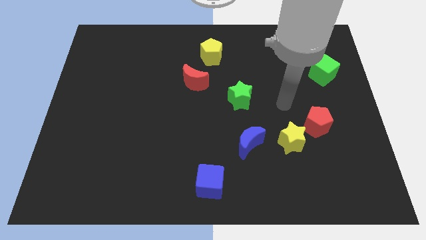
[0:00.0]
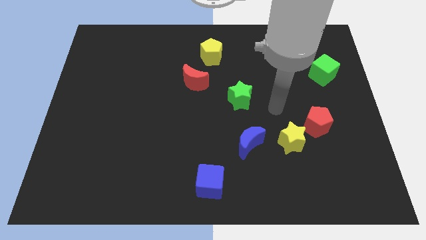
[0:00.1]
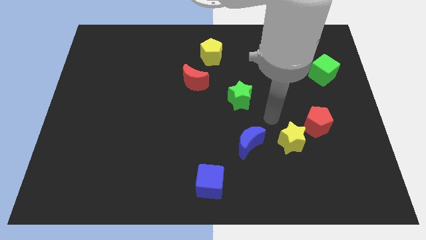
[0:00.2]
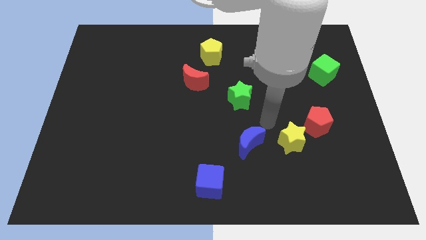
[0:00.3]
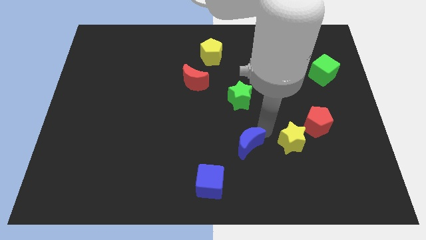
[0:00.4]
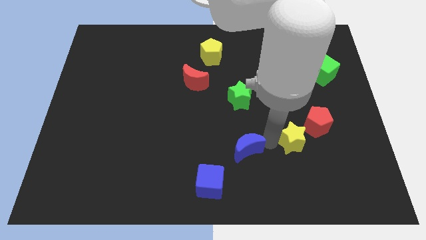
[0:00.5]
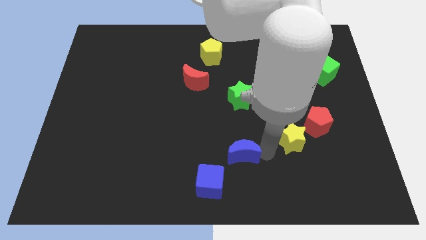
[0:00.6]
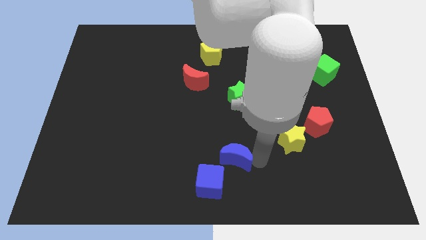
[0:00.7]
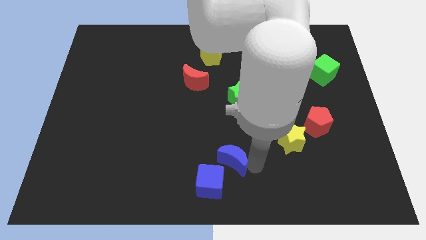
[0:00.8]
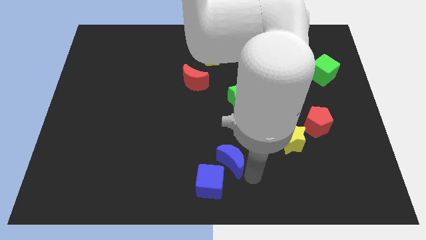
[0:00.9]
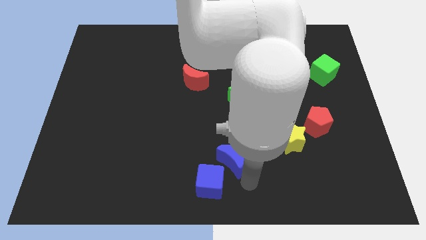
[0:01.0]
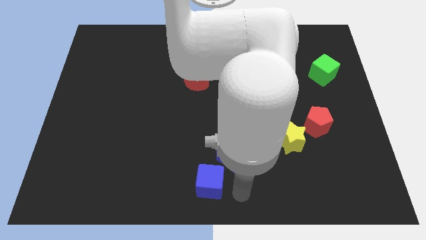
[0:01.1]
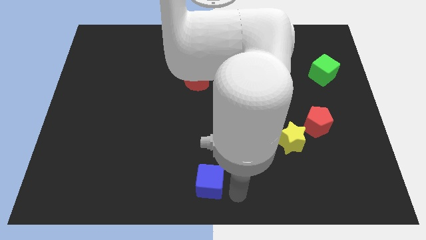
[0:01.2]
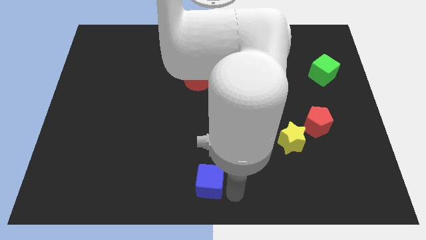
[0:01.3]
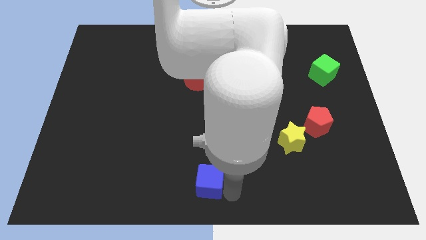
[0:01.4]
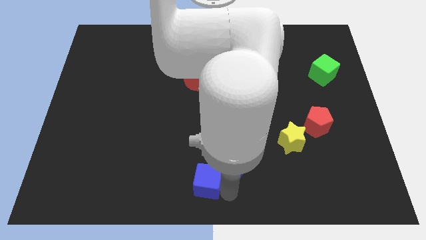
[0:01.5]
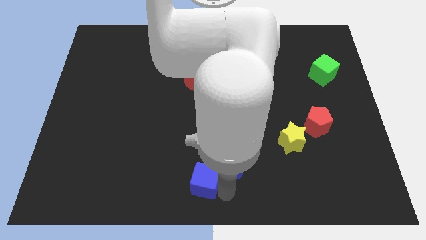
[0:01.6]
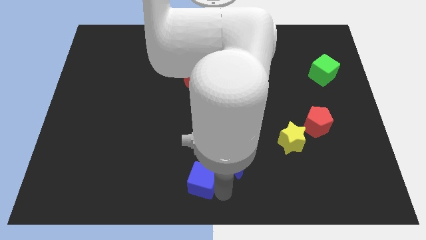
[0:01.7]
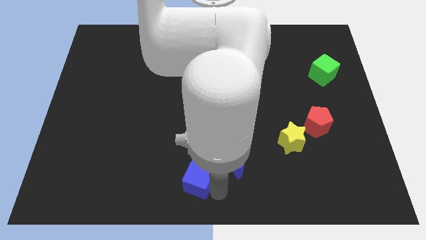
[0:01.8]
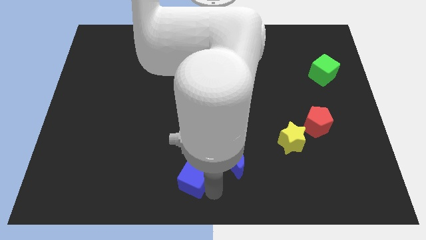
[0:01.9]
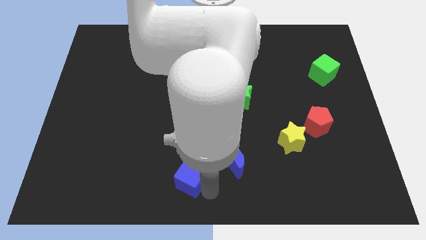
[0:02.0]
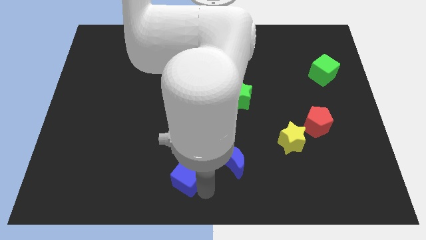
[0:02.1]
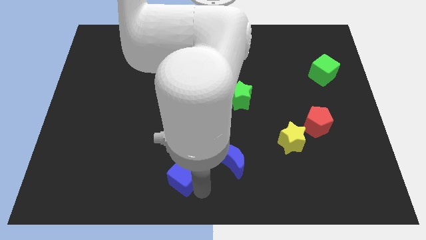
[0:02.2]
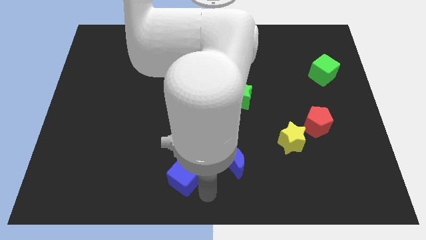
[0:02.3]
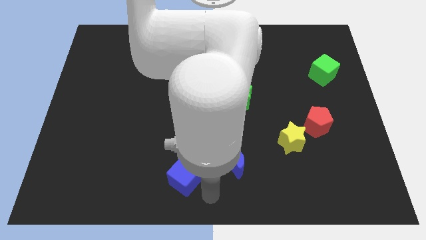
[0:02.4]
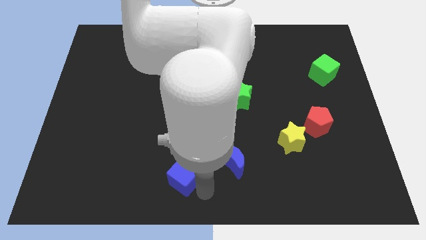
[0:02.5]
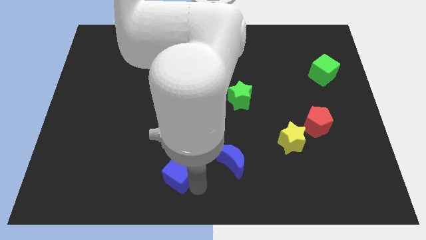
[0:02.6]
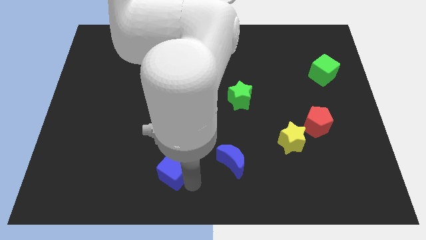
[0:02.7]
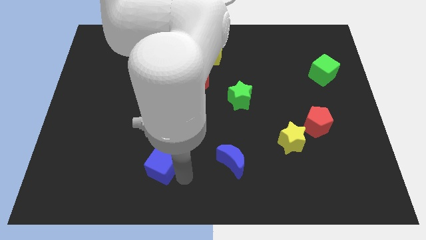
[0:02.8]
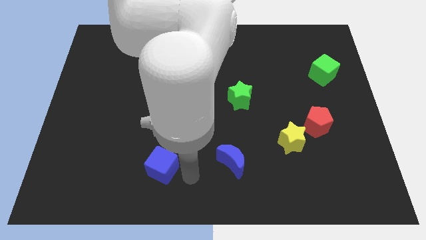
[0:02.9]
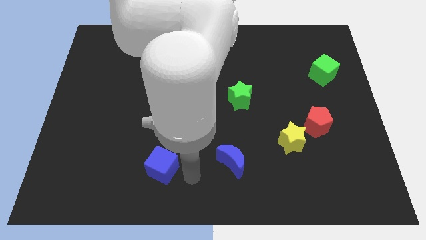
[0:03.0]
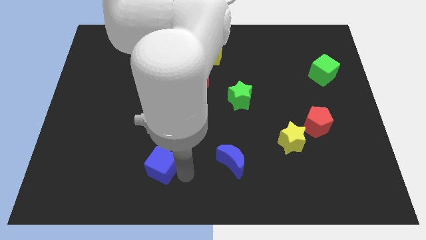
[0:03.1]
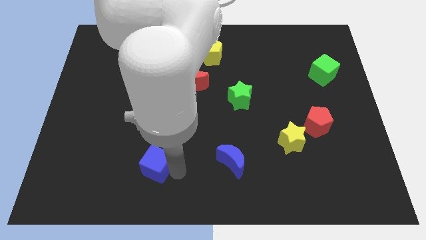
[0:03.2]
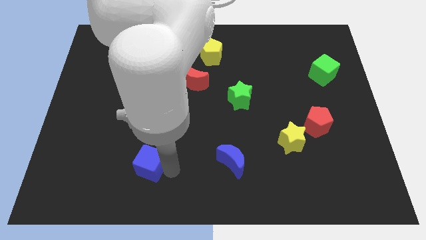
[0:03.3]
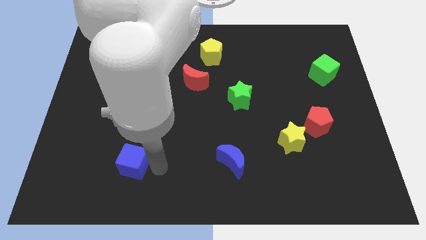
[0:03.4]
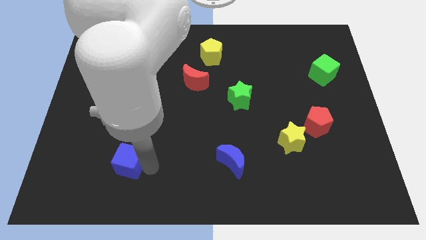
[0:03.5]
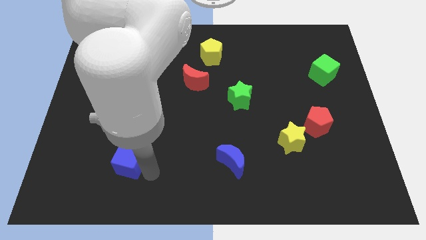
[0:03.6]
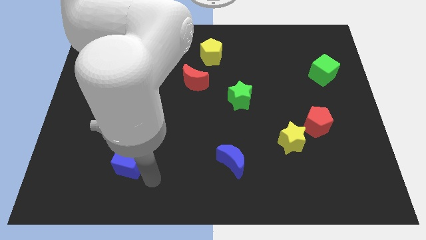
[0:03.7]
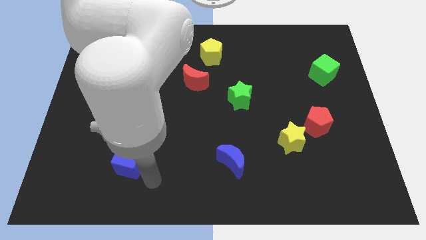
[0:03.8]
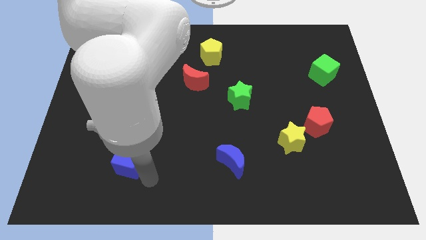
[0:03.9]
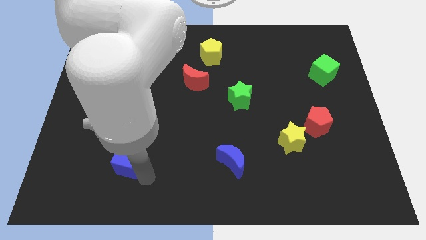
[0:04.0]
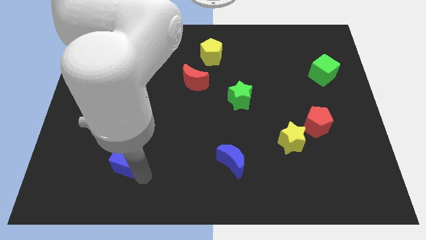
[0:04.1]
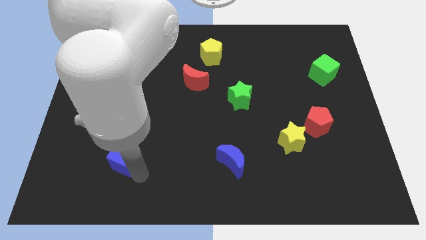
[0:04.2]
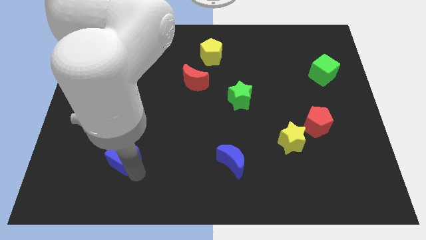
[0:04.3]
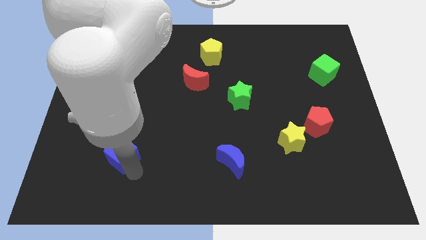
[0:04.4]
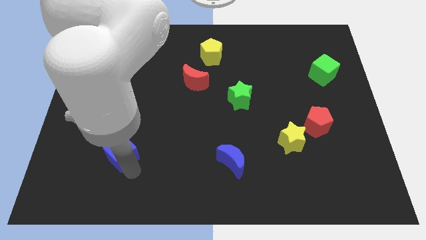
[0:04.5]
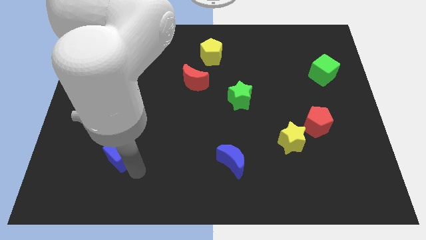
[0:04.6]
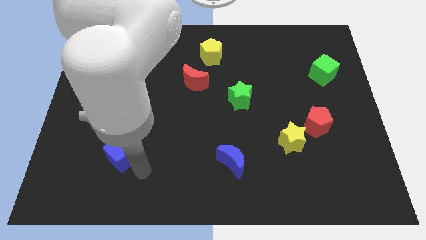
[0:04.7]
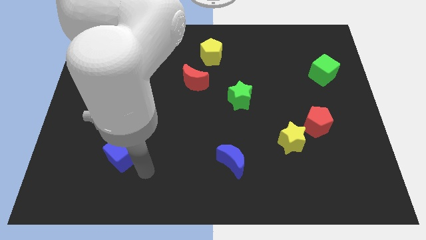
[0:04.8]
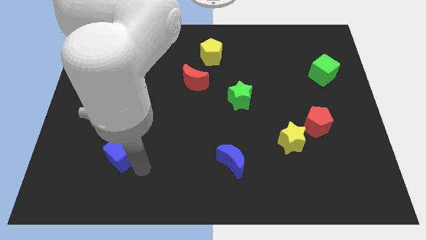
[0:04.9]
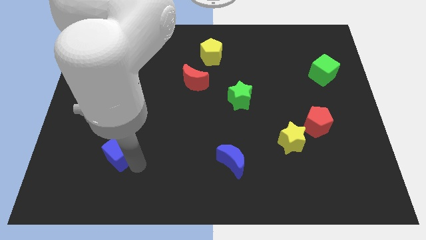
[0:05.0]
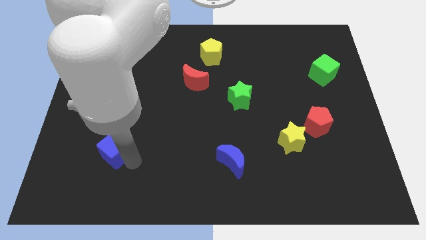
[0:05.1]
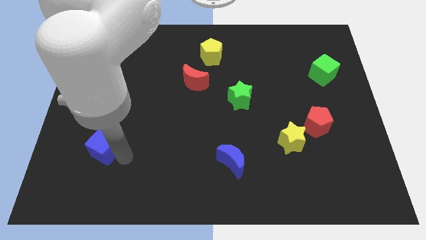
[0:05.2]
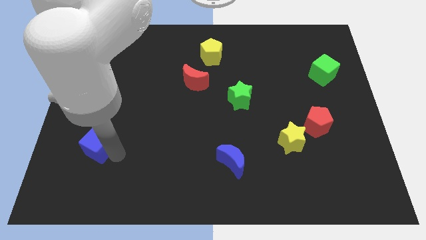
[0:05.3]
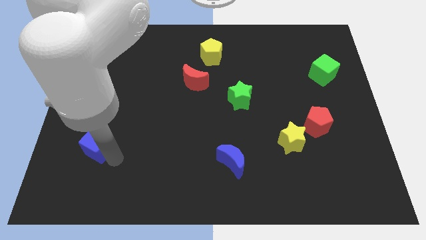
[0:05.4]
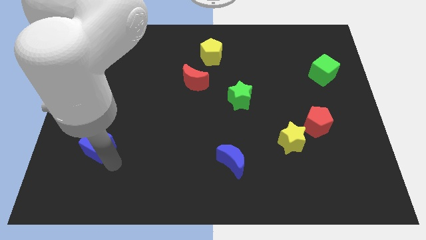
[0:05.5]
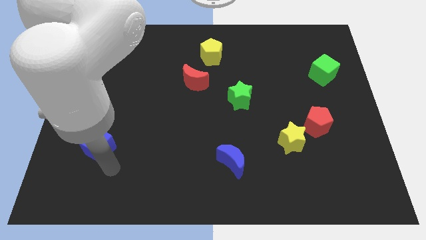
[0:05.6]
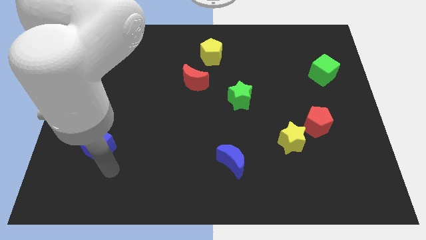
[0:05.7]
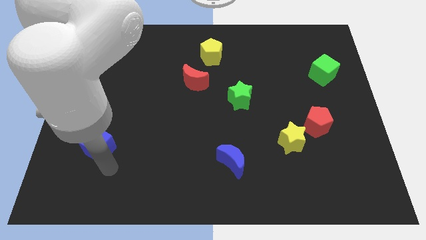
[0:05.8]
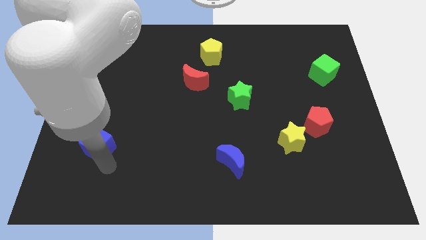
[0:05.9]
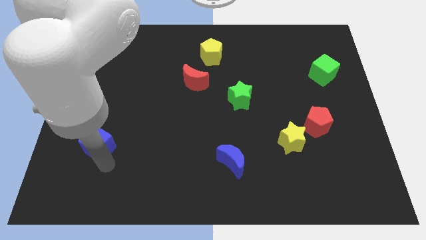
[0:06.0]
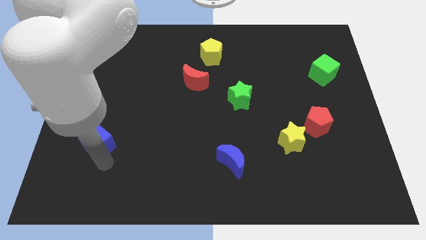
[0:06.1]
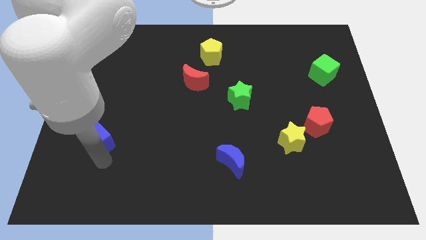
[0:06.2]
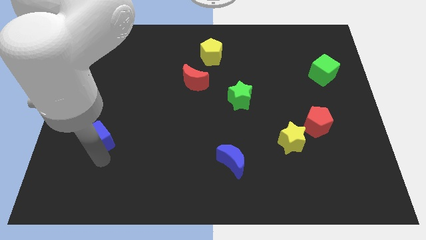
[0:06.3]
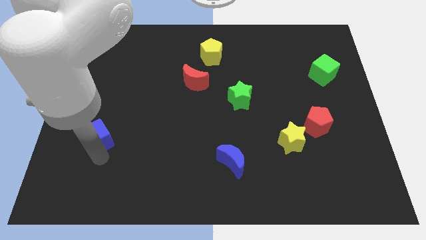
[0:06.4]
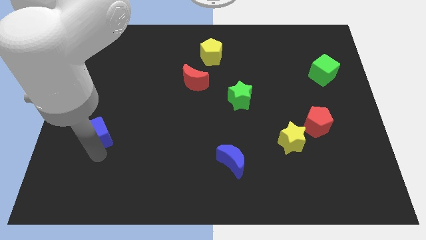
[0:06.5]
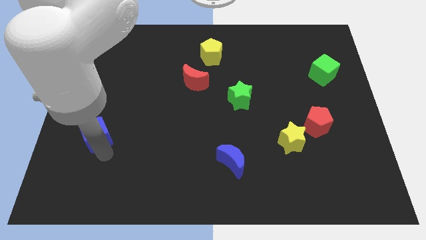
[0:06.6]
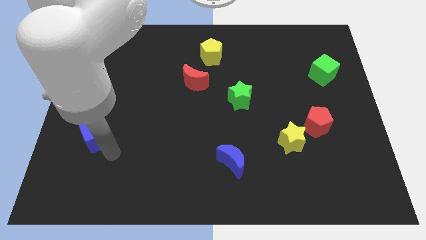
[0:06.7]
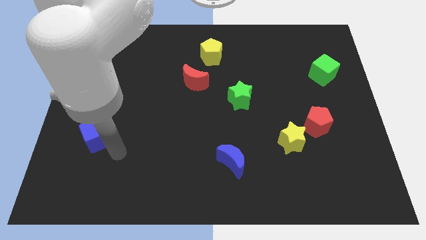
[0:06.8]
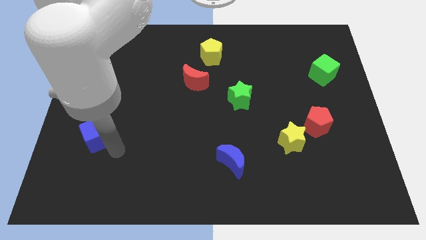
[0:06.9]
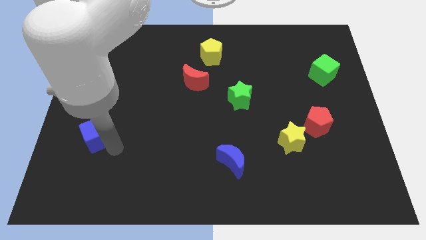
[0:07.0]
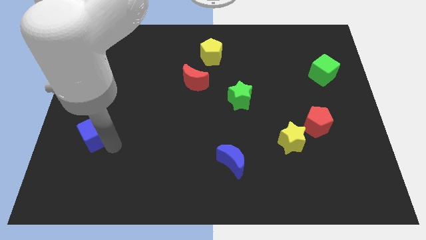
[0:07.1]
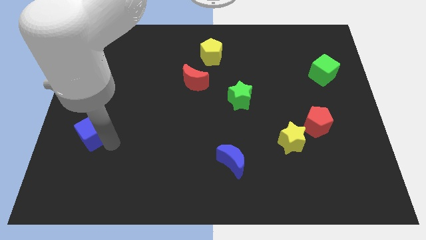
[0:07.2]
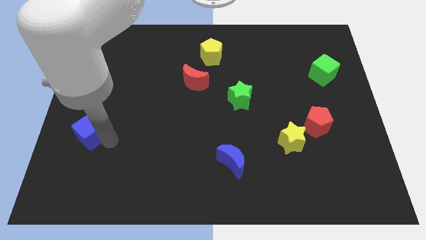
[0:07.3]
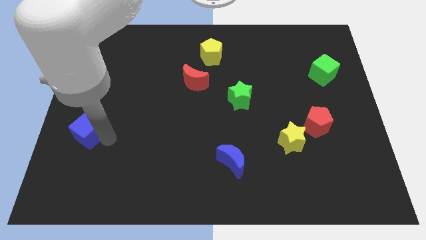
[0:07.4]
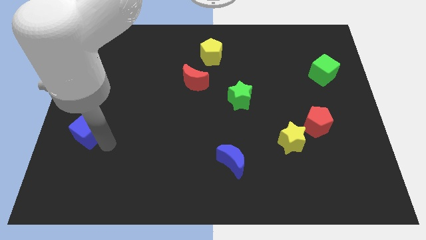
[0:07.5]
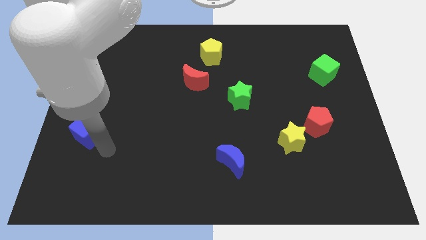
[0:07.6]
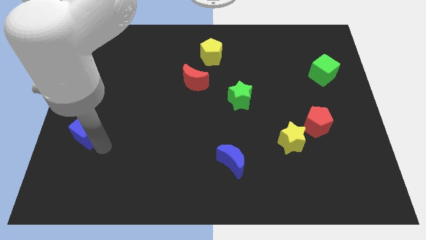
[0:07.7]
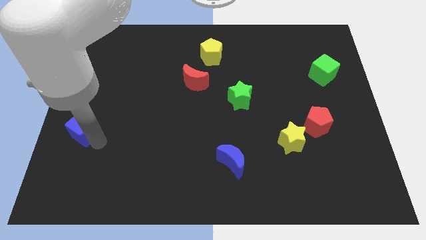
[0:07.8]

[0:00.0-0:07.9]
move the blue cube to the left side
